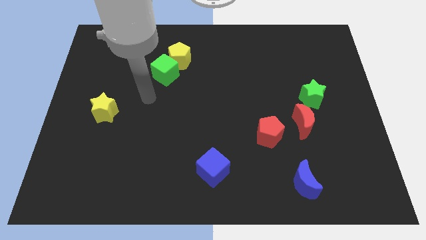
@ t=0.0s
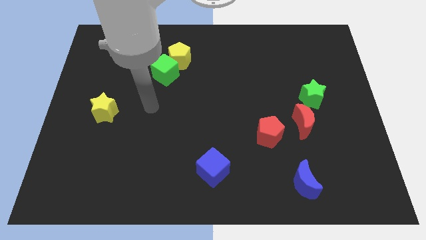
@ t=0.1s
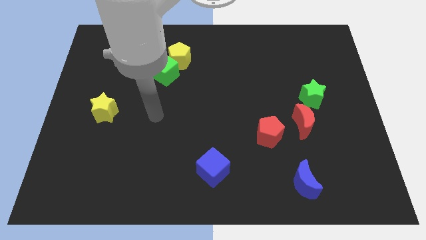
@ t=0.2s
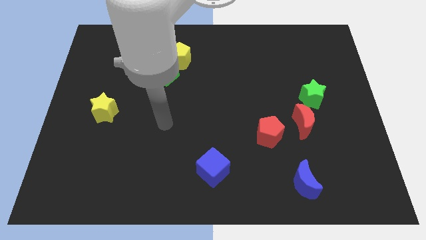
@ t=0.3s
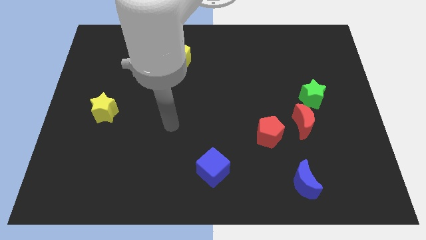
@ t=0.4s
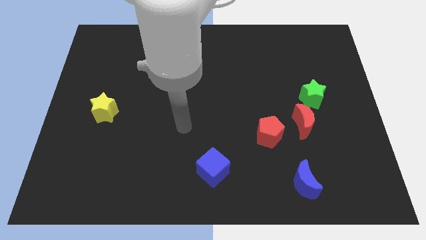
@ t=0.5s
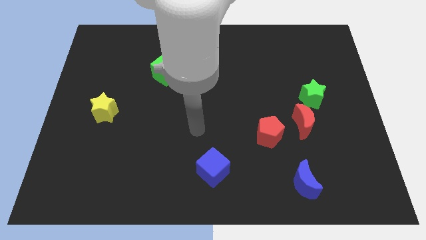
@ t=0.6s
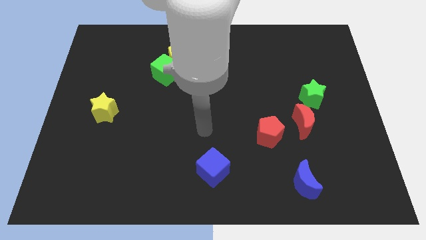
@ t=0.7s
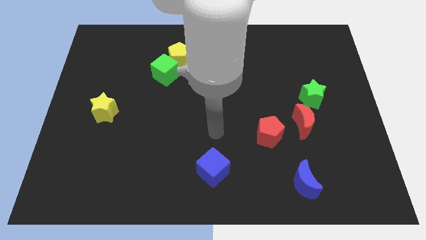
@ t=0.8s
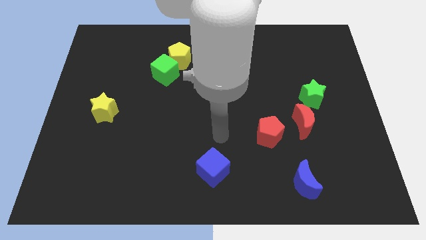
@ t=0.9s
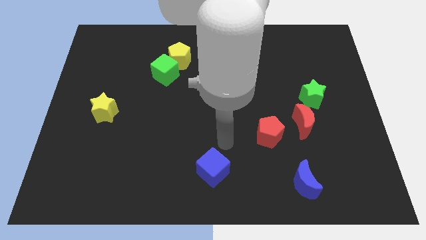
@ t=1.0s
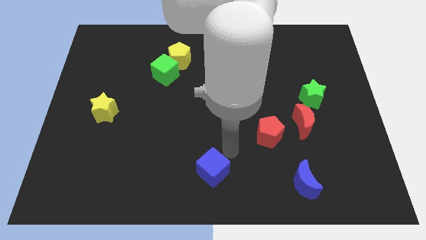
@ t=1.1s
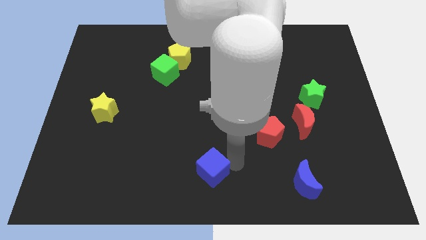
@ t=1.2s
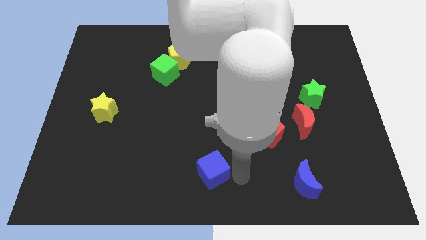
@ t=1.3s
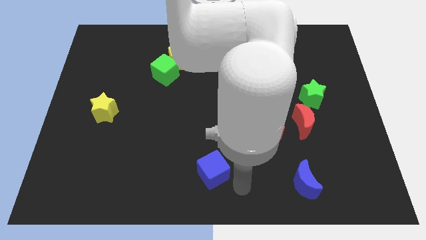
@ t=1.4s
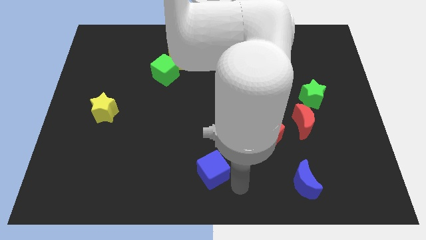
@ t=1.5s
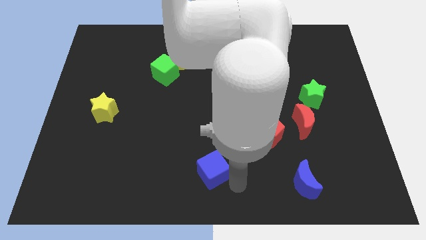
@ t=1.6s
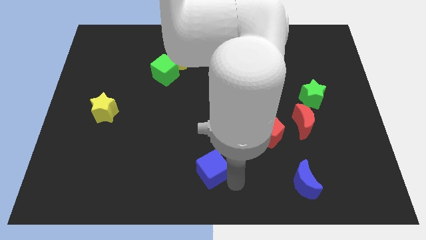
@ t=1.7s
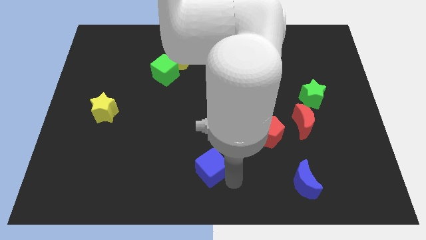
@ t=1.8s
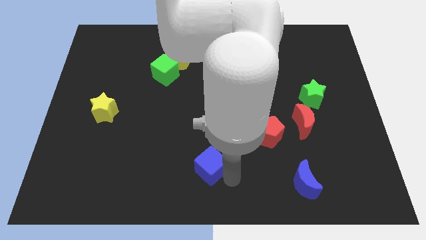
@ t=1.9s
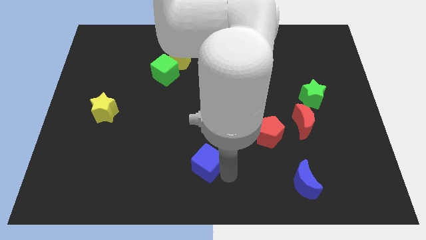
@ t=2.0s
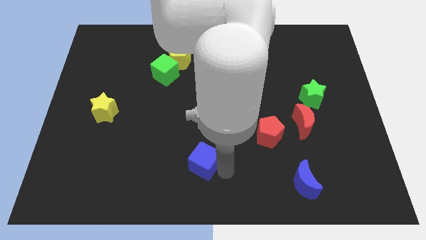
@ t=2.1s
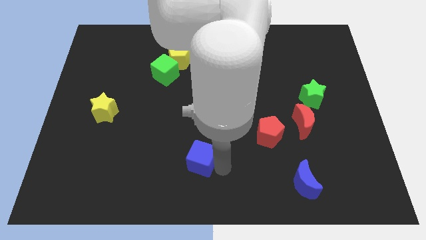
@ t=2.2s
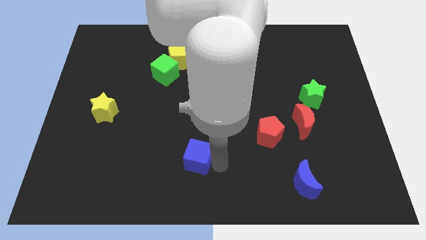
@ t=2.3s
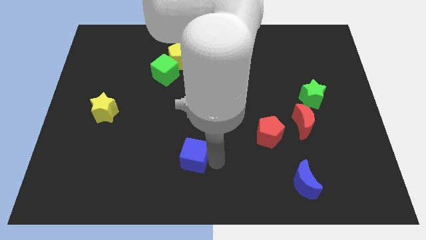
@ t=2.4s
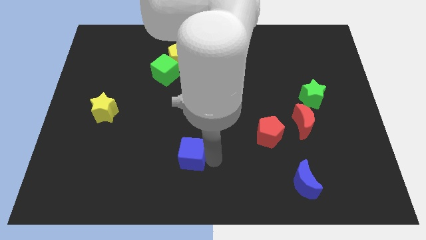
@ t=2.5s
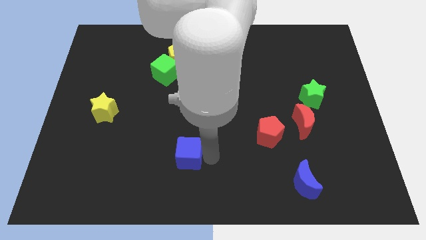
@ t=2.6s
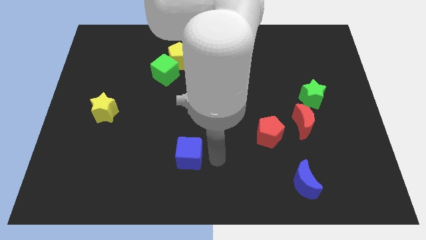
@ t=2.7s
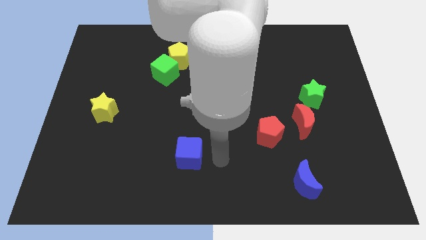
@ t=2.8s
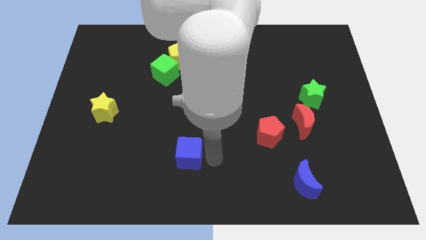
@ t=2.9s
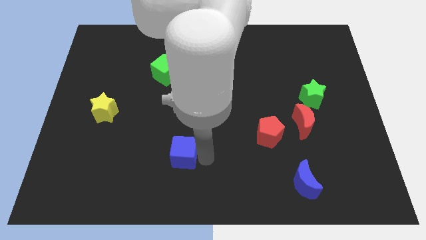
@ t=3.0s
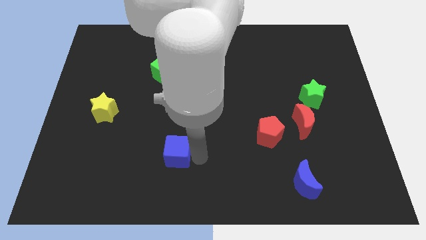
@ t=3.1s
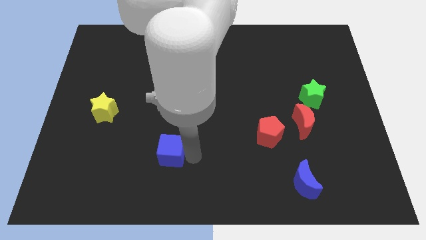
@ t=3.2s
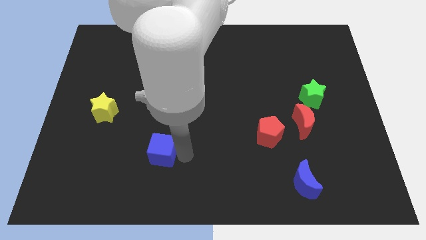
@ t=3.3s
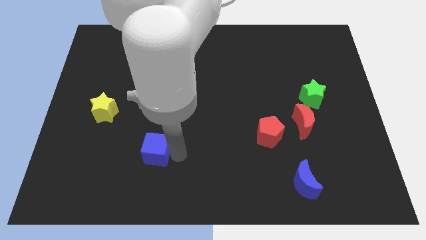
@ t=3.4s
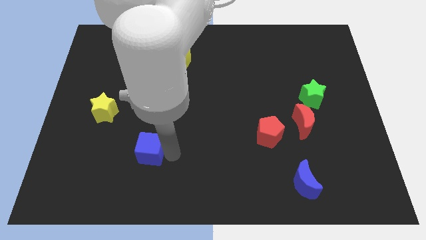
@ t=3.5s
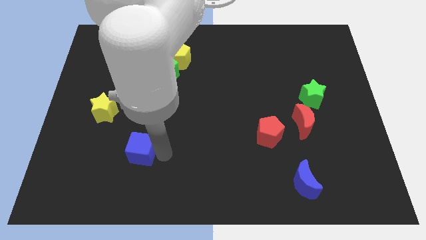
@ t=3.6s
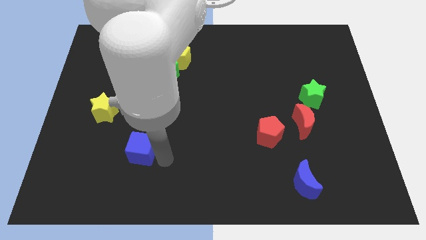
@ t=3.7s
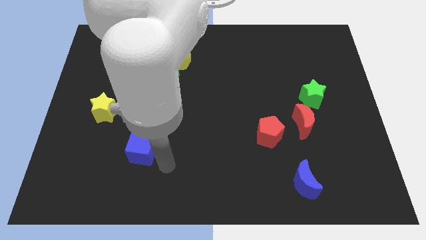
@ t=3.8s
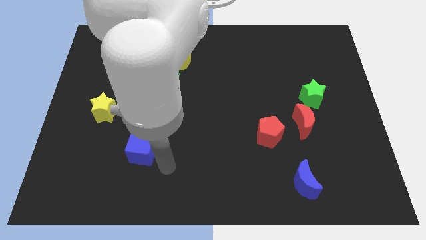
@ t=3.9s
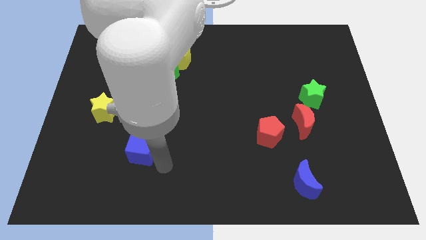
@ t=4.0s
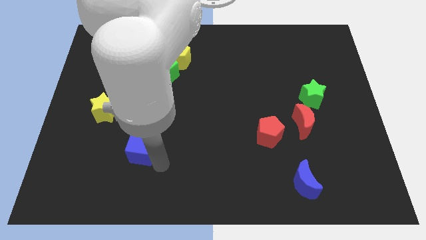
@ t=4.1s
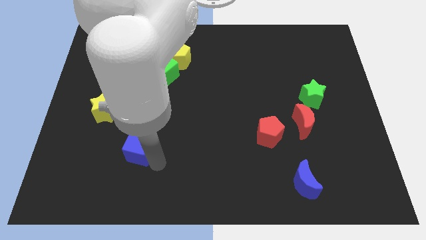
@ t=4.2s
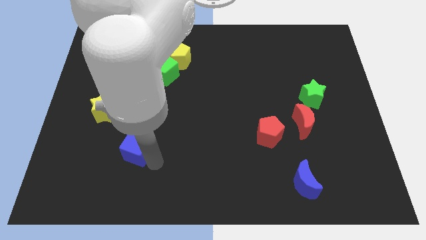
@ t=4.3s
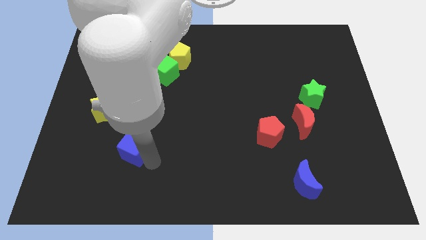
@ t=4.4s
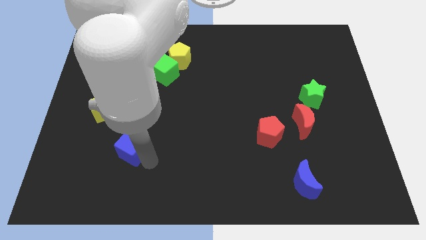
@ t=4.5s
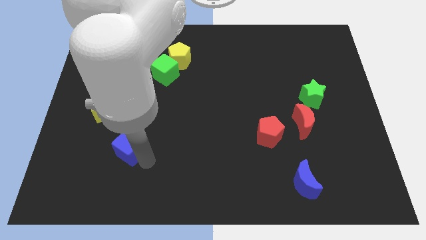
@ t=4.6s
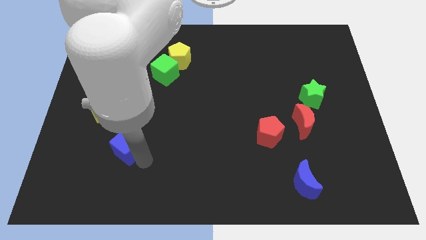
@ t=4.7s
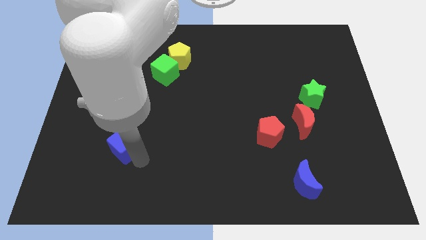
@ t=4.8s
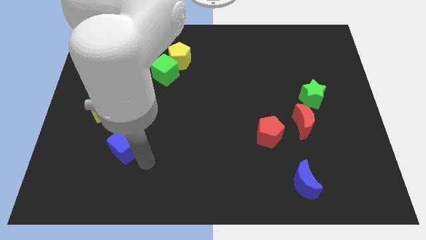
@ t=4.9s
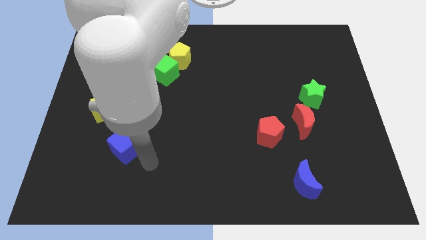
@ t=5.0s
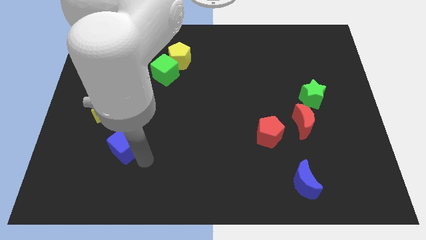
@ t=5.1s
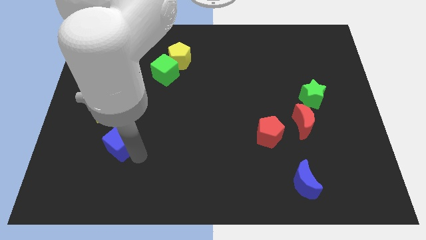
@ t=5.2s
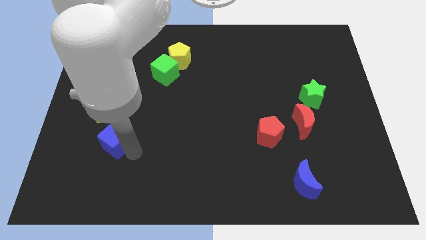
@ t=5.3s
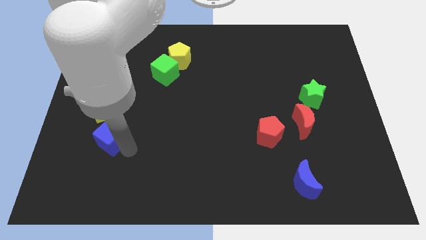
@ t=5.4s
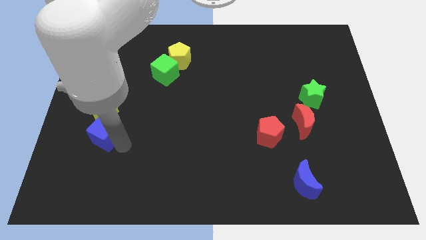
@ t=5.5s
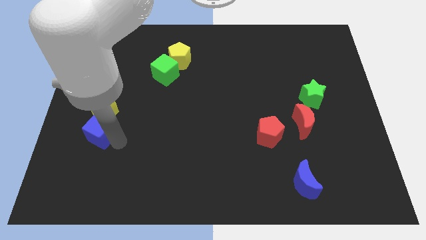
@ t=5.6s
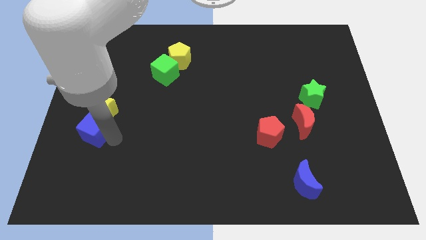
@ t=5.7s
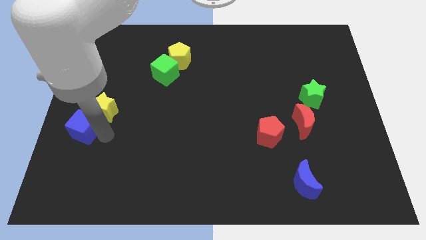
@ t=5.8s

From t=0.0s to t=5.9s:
move the blue cube to the left side of the board

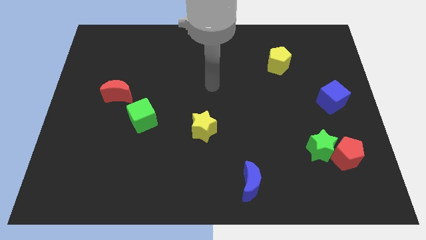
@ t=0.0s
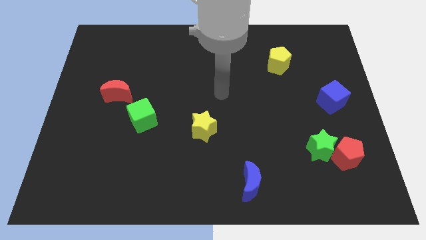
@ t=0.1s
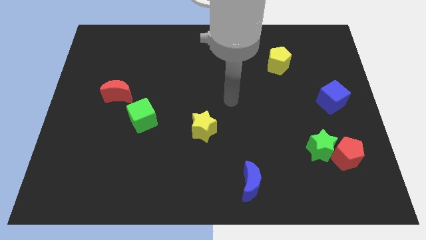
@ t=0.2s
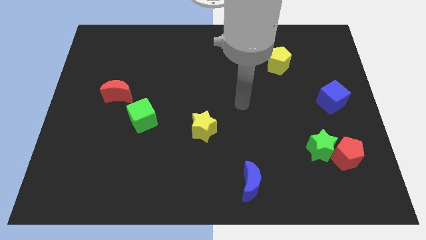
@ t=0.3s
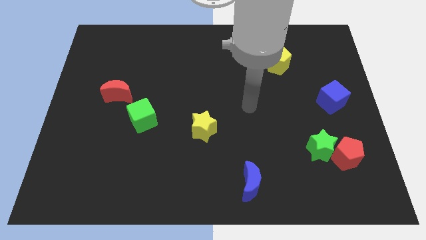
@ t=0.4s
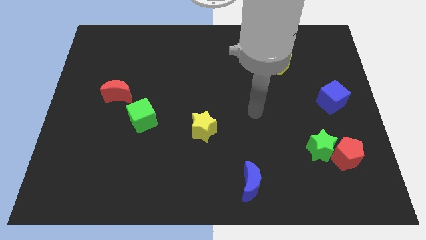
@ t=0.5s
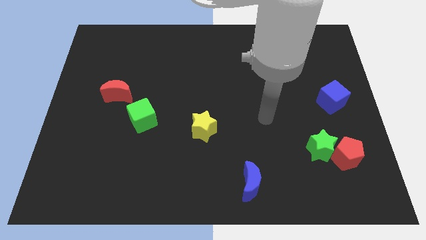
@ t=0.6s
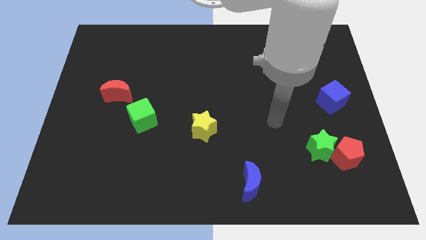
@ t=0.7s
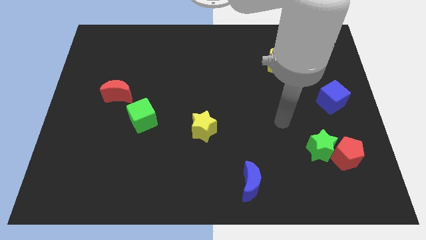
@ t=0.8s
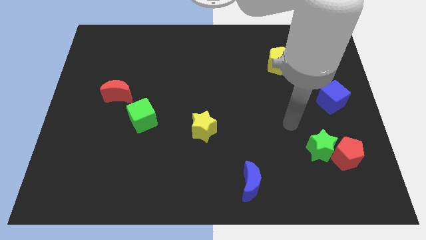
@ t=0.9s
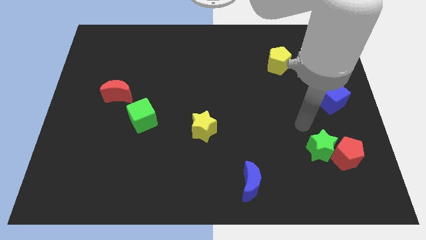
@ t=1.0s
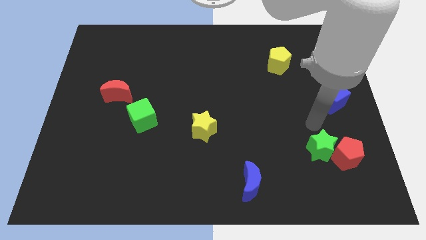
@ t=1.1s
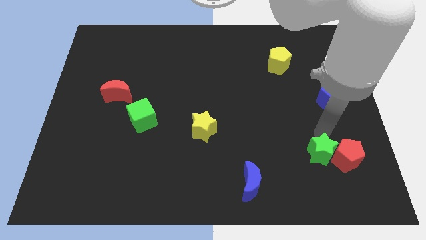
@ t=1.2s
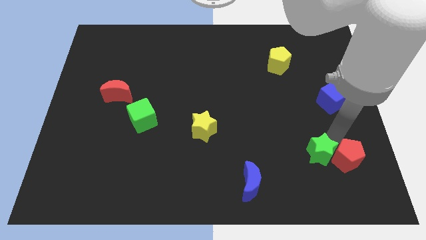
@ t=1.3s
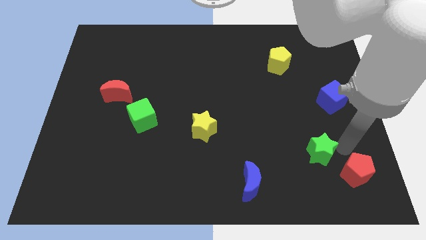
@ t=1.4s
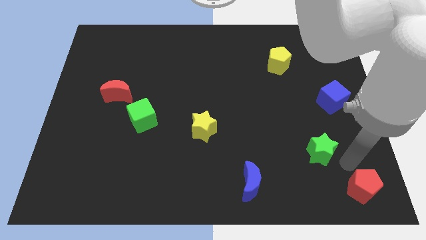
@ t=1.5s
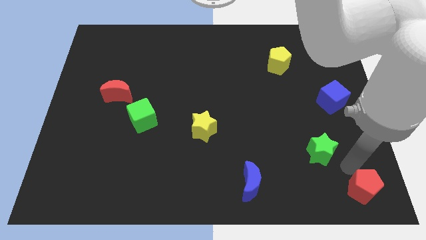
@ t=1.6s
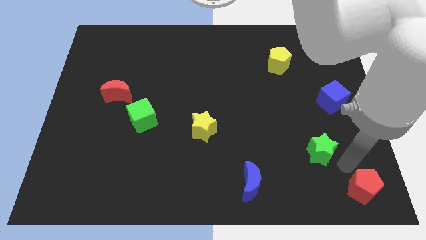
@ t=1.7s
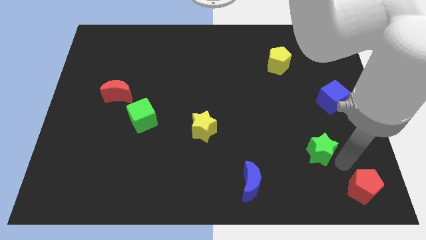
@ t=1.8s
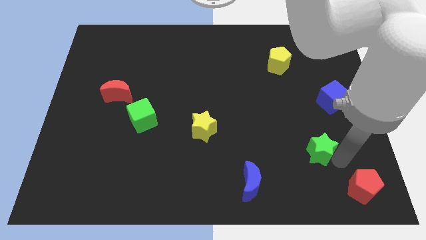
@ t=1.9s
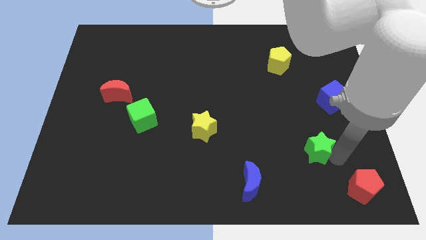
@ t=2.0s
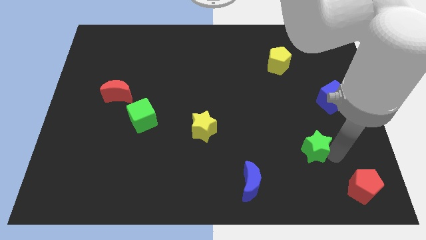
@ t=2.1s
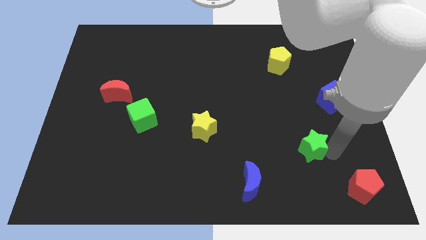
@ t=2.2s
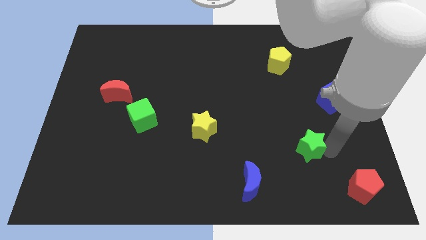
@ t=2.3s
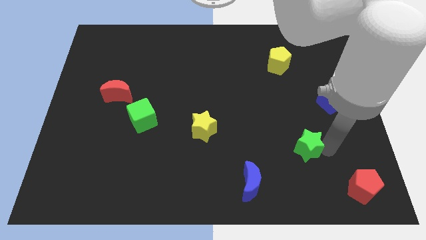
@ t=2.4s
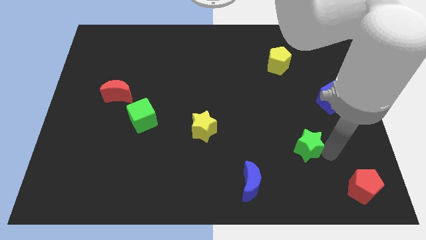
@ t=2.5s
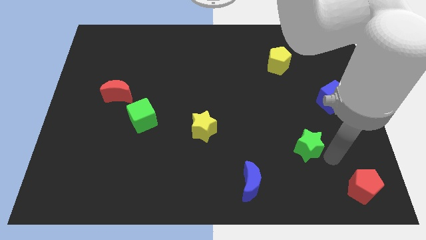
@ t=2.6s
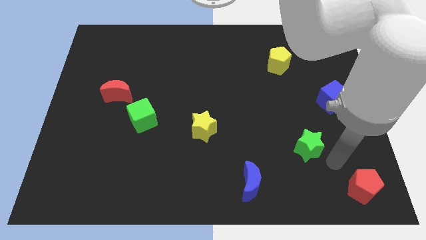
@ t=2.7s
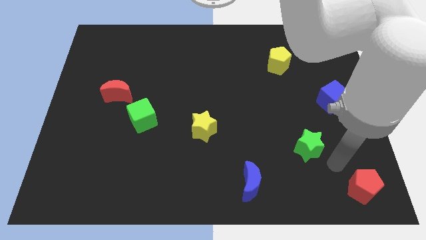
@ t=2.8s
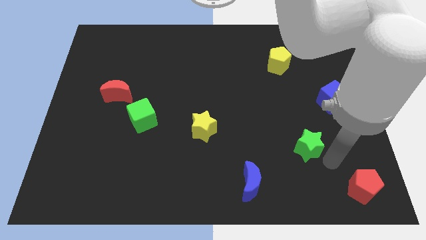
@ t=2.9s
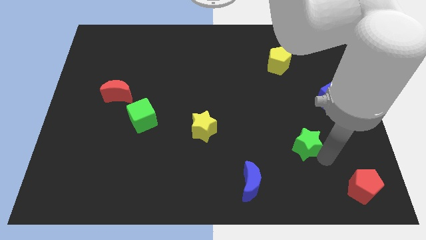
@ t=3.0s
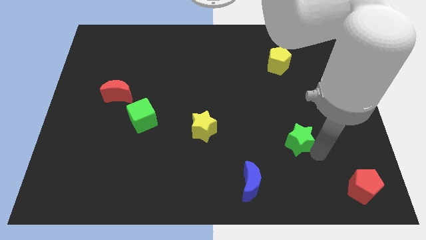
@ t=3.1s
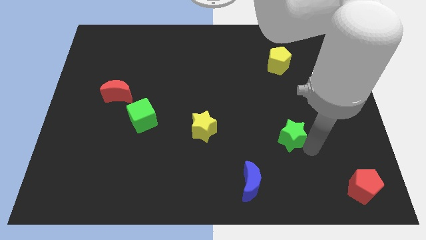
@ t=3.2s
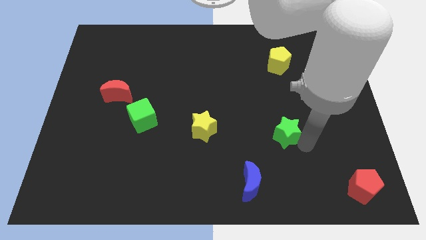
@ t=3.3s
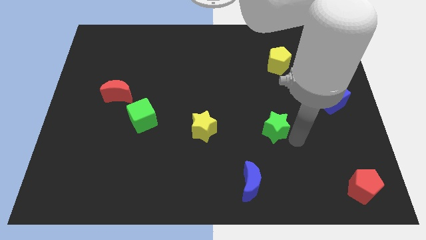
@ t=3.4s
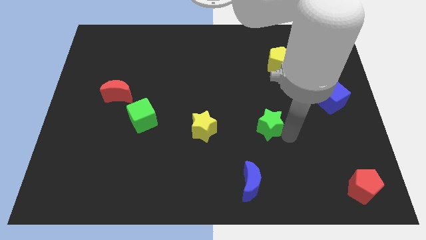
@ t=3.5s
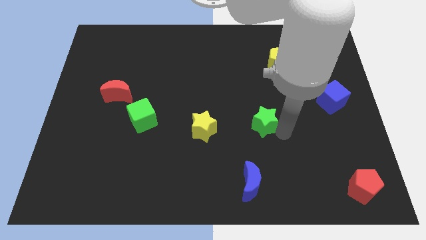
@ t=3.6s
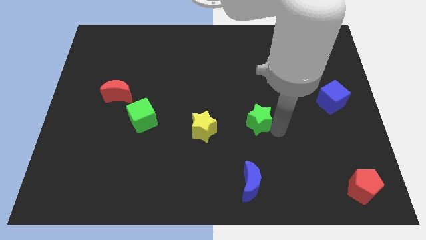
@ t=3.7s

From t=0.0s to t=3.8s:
put the green star to the middle
